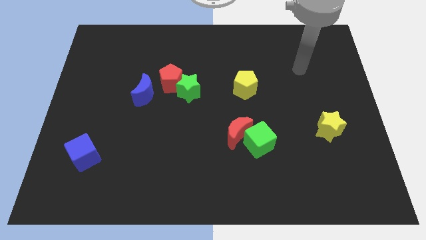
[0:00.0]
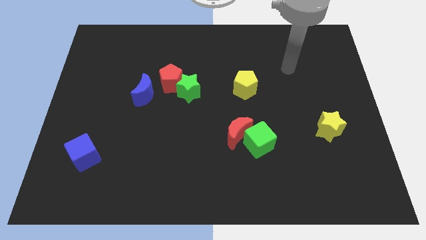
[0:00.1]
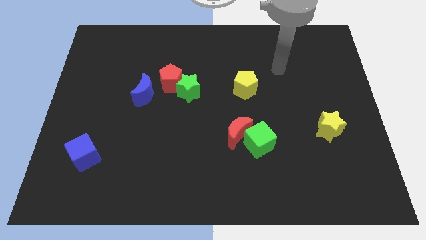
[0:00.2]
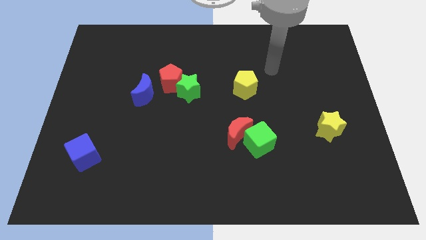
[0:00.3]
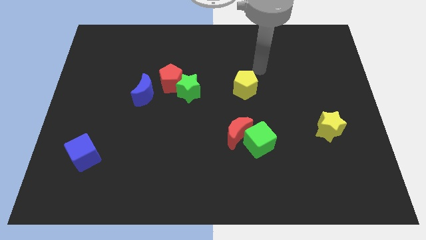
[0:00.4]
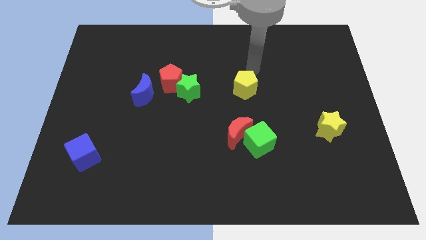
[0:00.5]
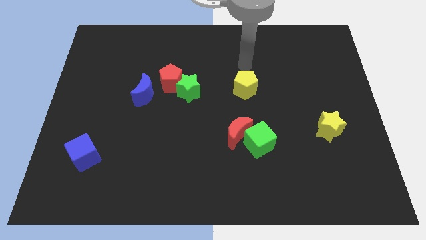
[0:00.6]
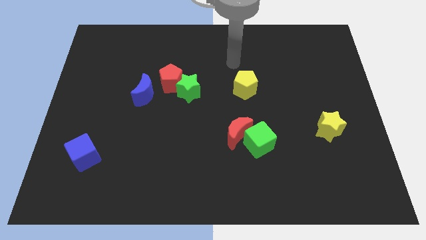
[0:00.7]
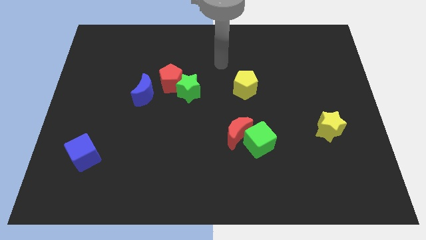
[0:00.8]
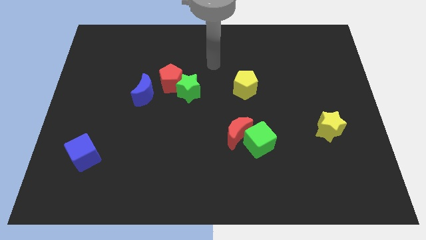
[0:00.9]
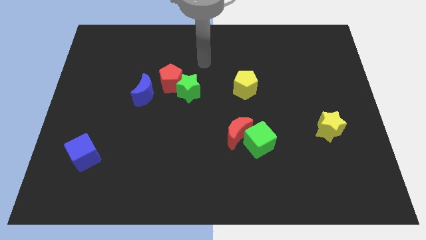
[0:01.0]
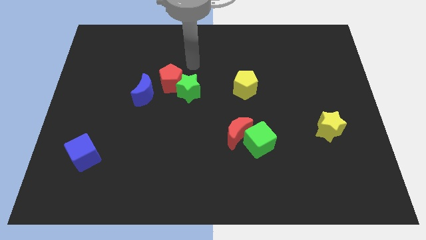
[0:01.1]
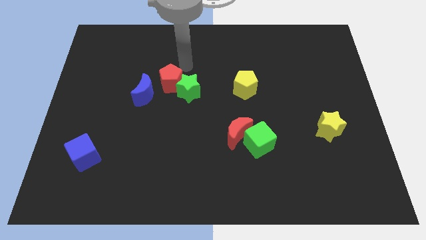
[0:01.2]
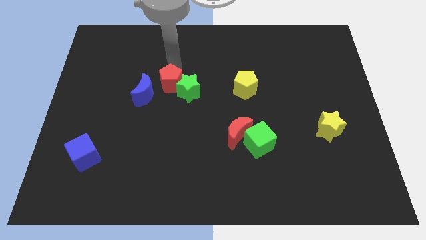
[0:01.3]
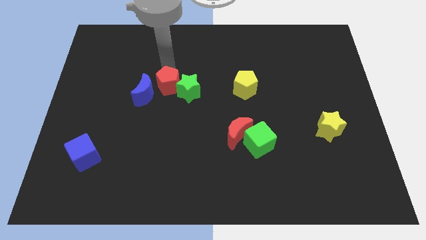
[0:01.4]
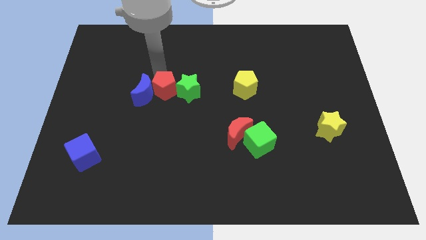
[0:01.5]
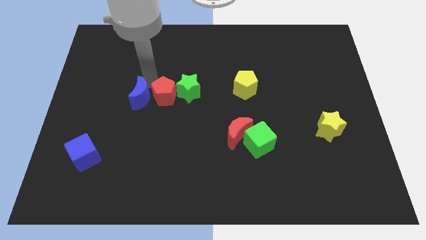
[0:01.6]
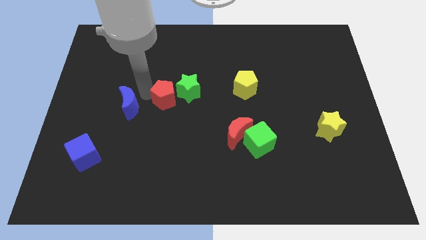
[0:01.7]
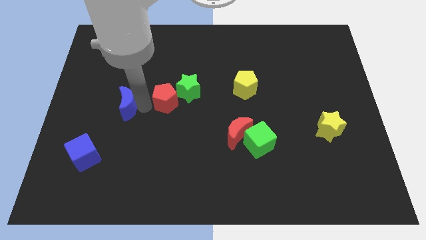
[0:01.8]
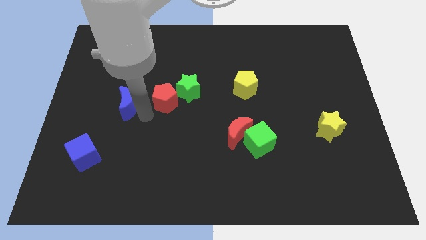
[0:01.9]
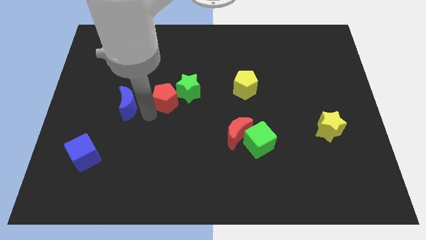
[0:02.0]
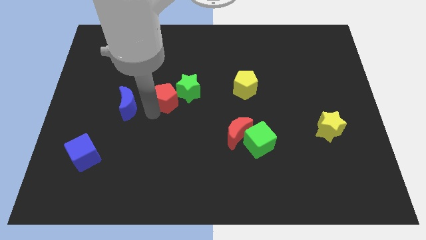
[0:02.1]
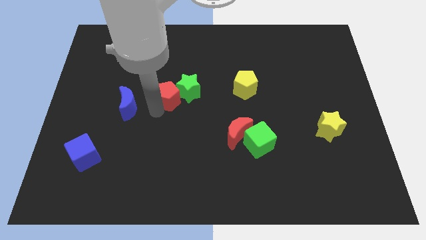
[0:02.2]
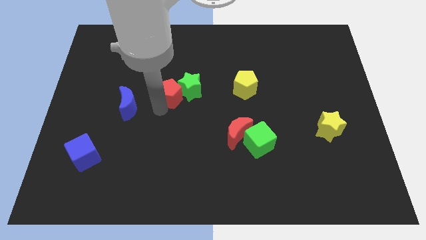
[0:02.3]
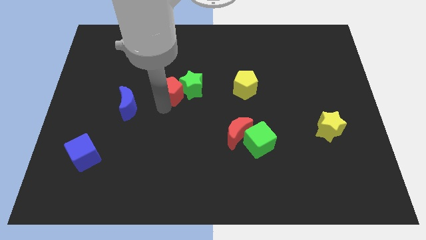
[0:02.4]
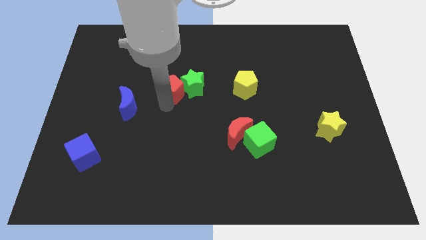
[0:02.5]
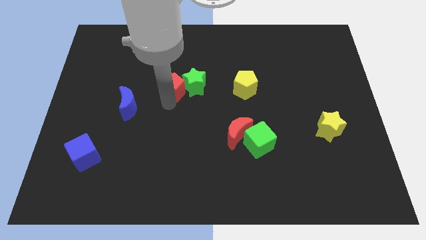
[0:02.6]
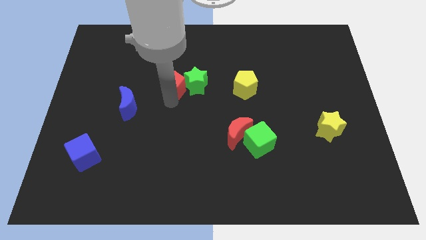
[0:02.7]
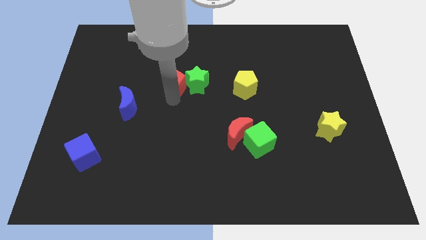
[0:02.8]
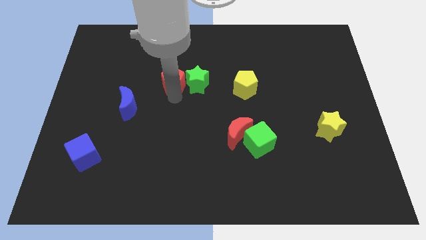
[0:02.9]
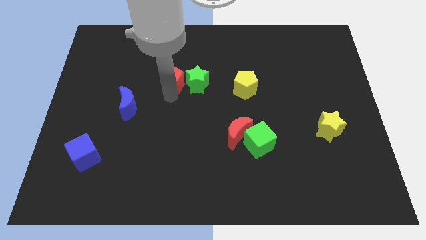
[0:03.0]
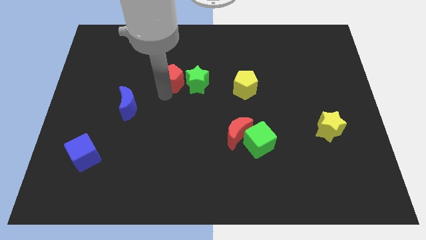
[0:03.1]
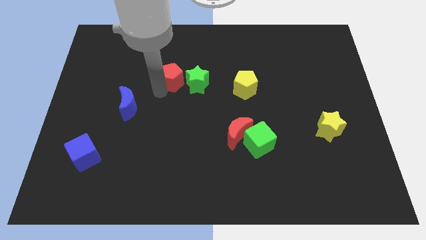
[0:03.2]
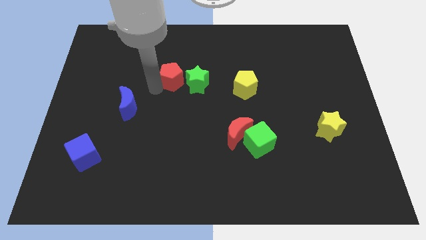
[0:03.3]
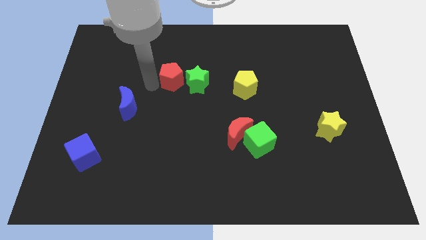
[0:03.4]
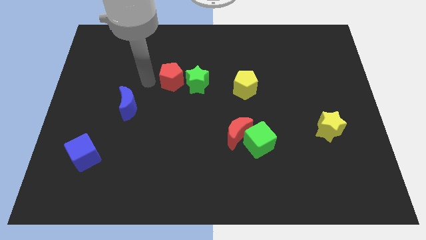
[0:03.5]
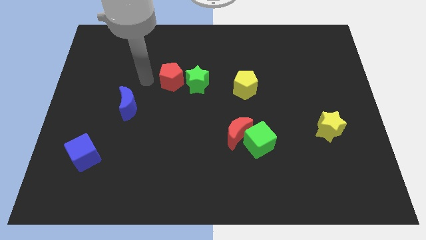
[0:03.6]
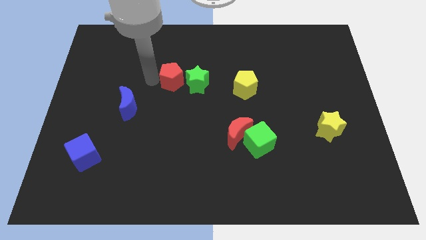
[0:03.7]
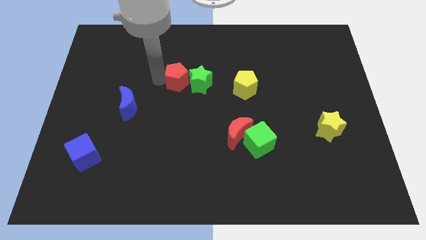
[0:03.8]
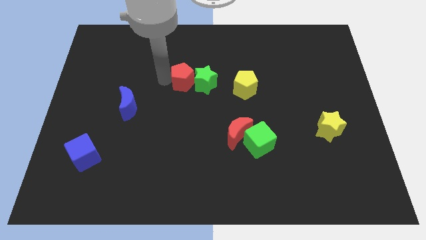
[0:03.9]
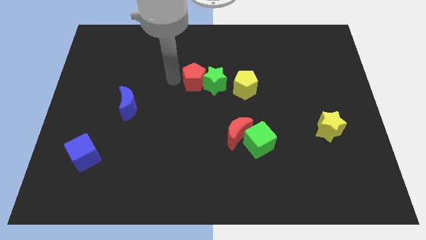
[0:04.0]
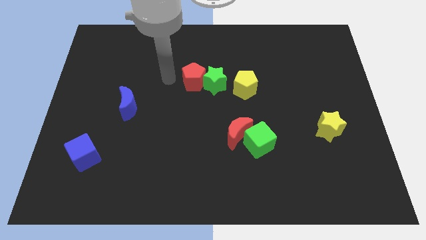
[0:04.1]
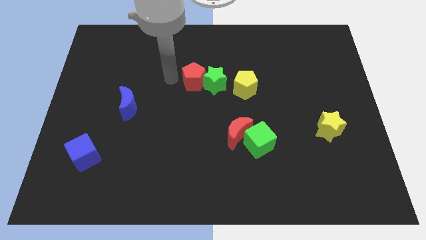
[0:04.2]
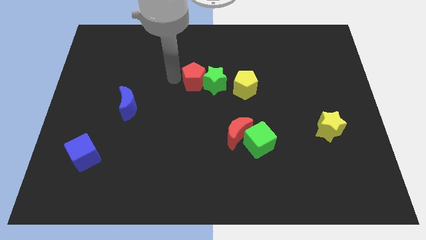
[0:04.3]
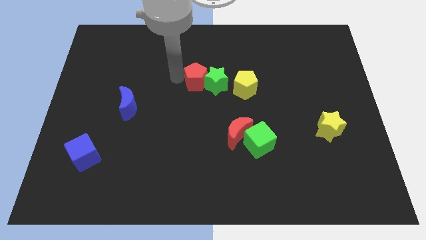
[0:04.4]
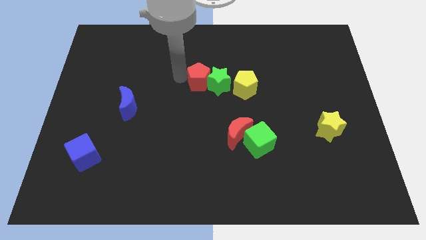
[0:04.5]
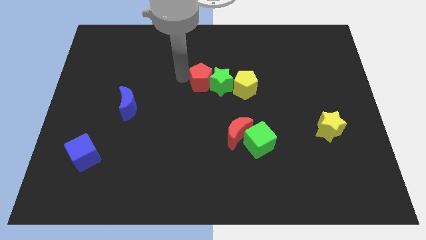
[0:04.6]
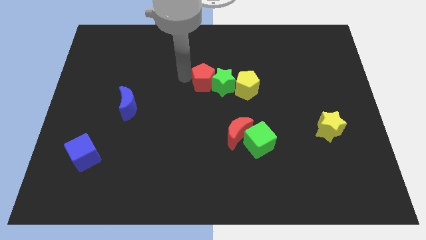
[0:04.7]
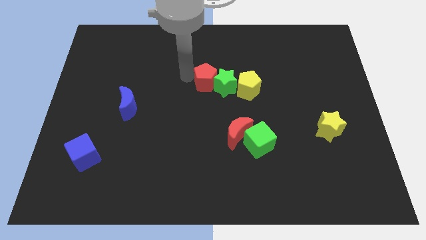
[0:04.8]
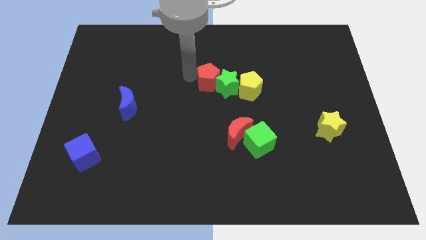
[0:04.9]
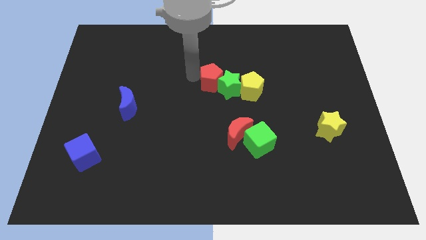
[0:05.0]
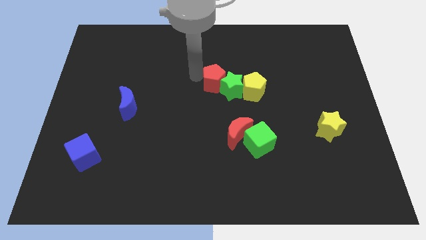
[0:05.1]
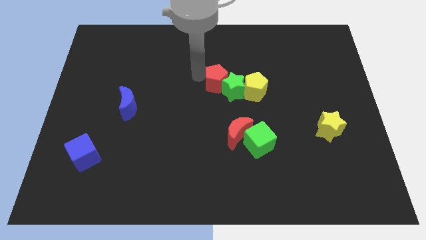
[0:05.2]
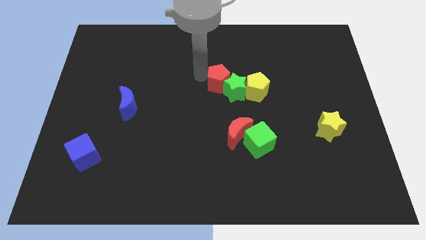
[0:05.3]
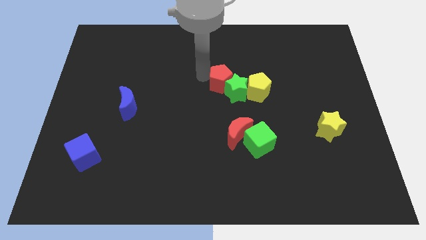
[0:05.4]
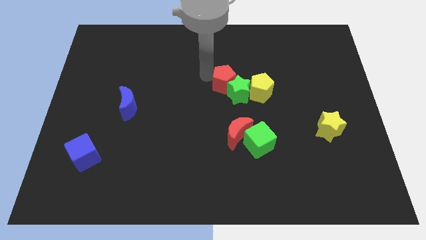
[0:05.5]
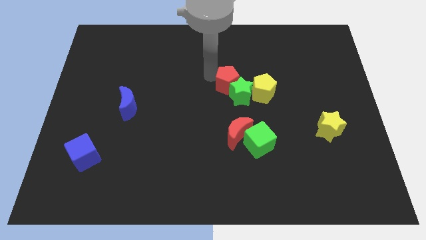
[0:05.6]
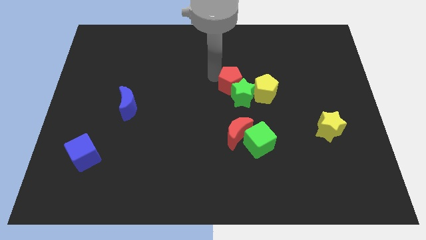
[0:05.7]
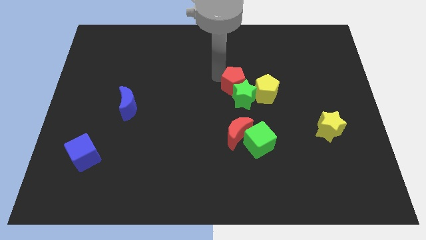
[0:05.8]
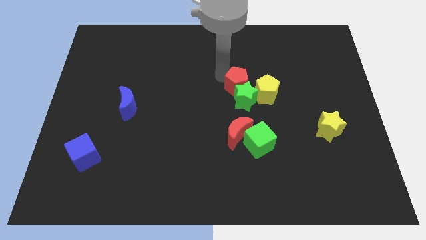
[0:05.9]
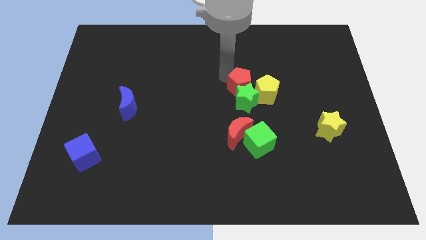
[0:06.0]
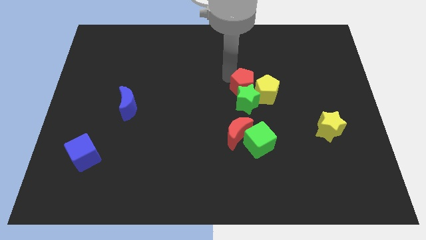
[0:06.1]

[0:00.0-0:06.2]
slide the red pentagon towards the yellow pentagon
